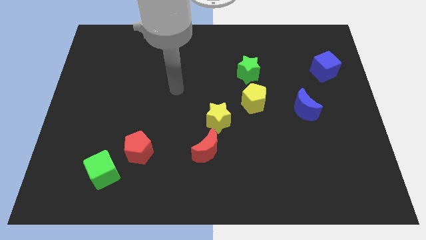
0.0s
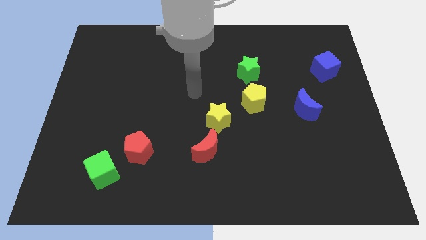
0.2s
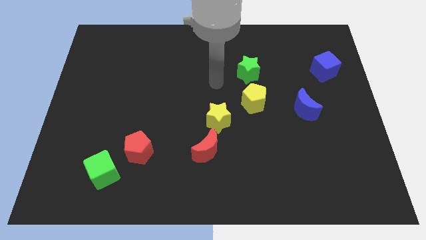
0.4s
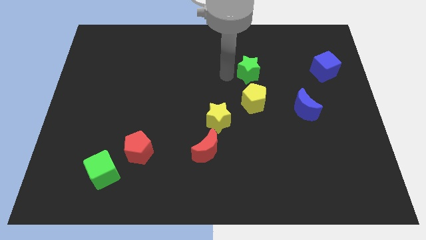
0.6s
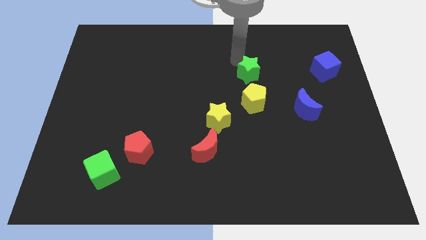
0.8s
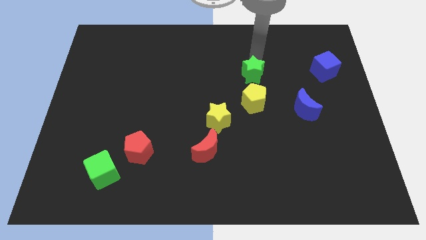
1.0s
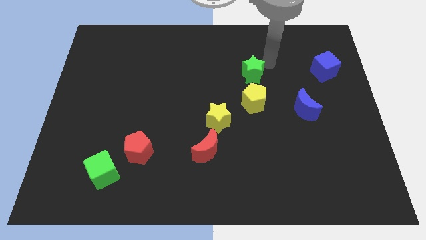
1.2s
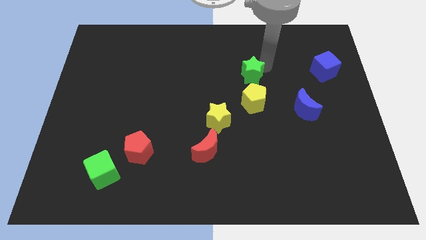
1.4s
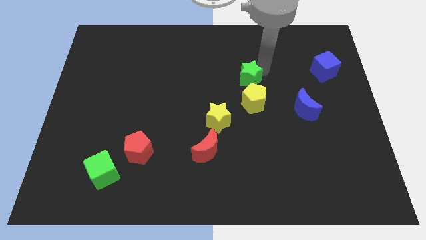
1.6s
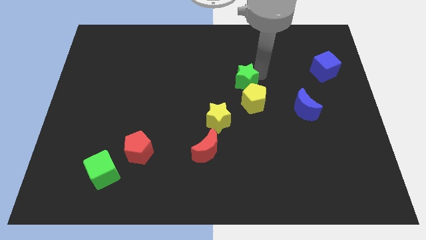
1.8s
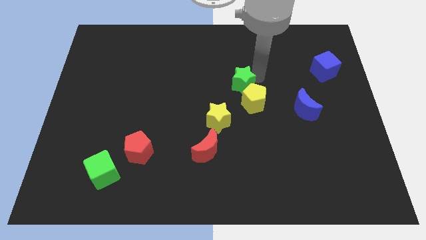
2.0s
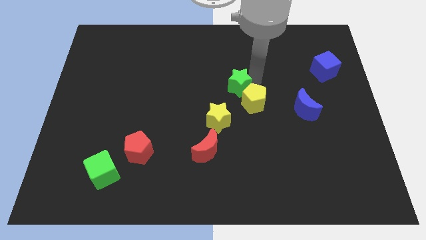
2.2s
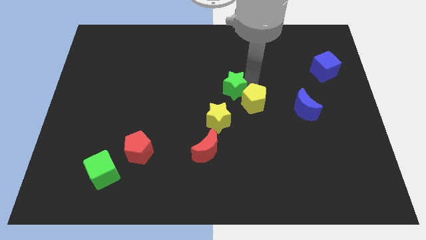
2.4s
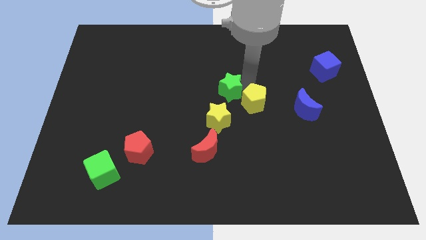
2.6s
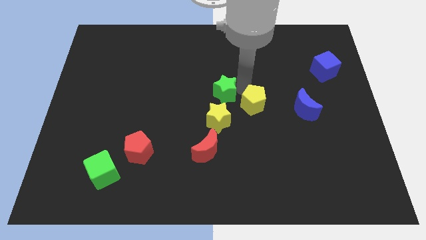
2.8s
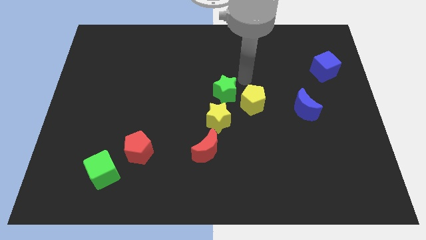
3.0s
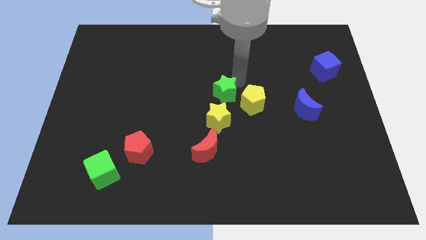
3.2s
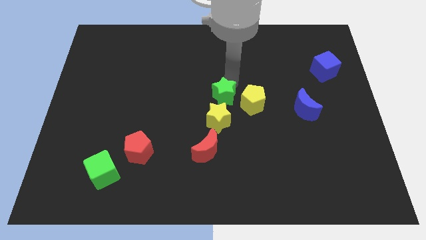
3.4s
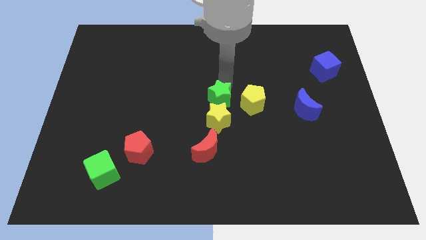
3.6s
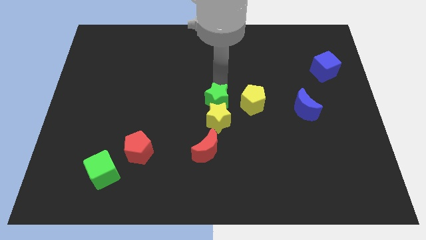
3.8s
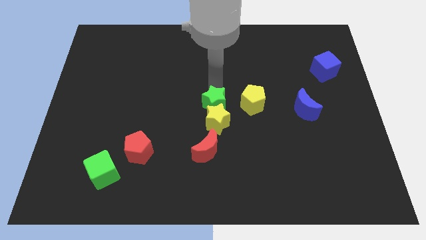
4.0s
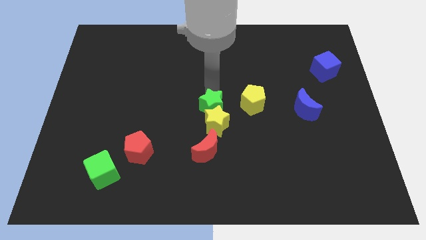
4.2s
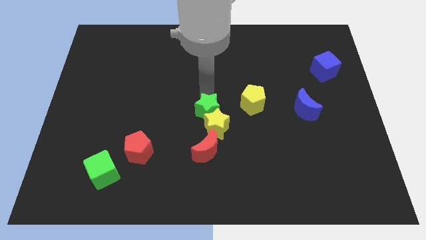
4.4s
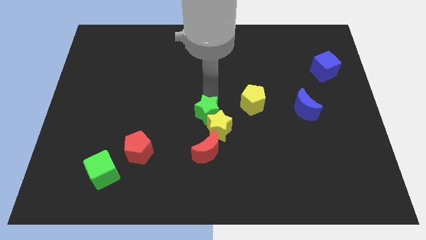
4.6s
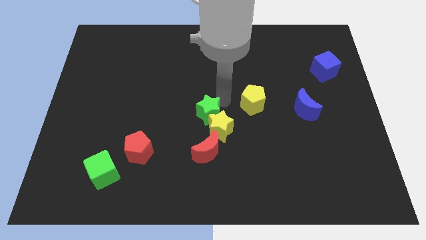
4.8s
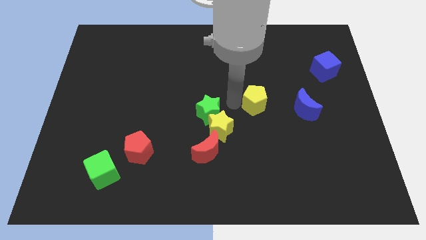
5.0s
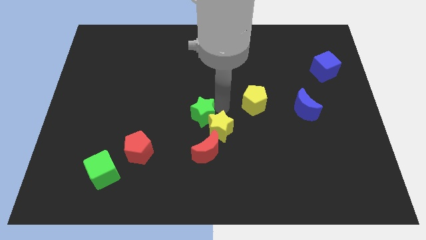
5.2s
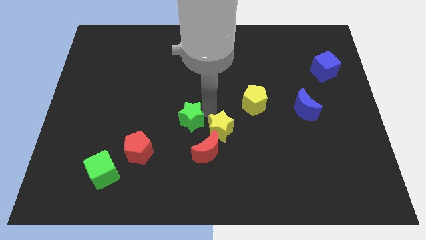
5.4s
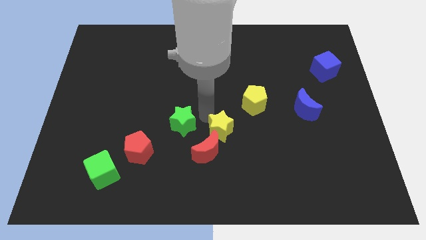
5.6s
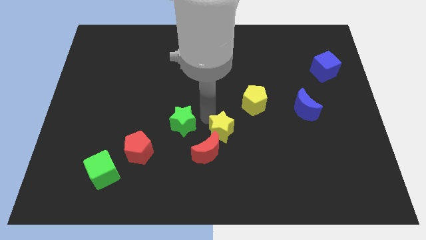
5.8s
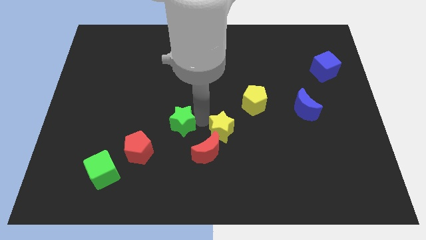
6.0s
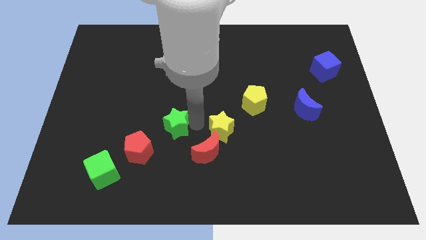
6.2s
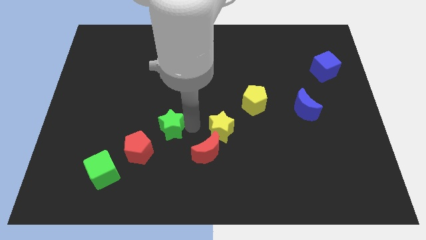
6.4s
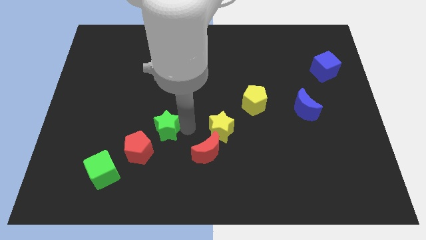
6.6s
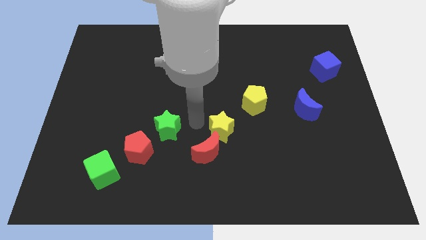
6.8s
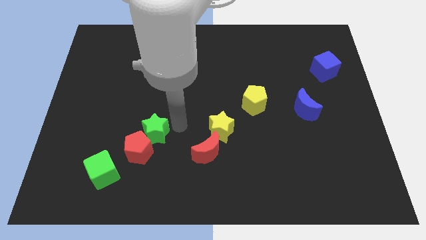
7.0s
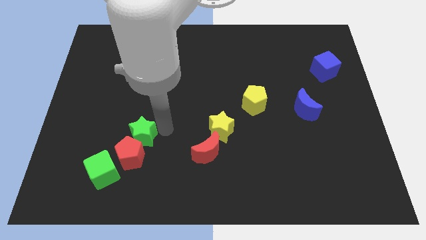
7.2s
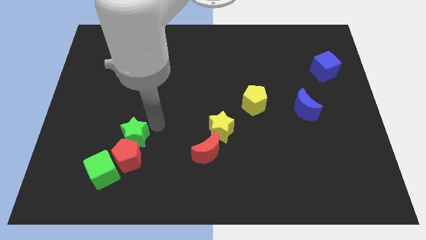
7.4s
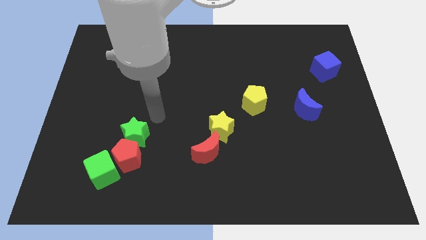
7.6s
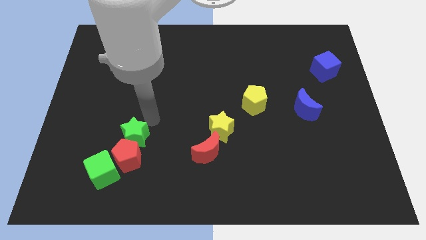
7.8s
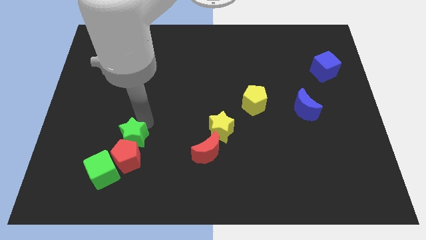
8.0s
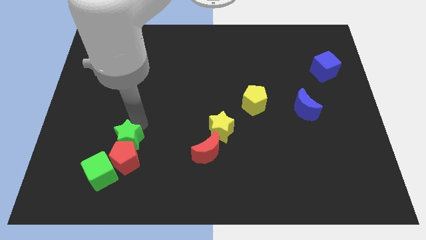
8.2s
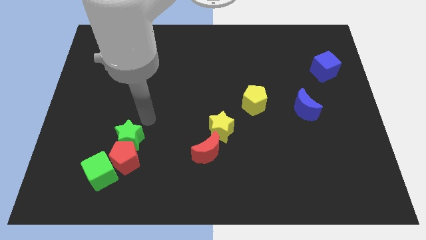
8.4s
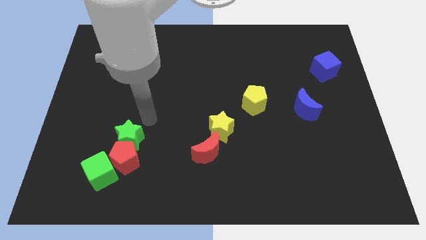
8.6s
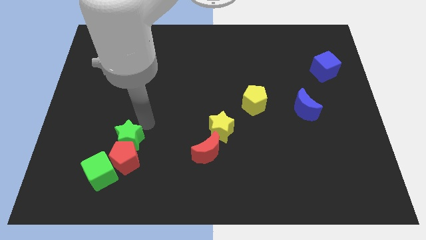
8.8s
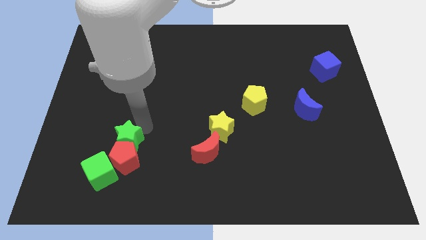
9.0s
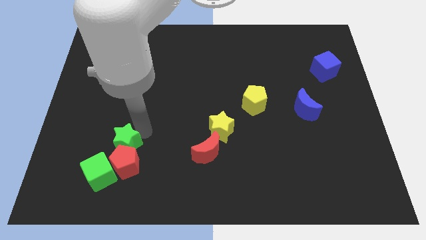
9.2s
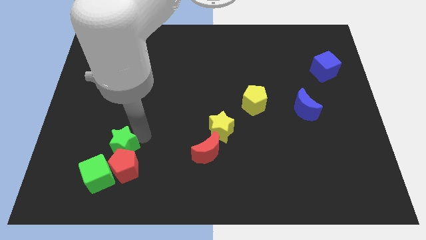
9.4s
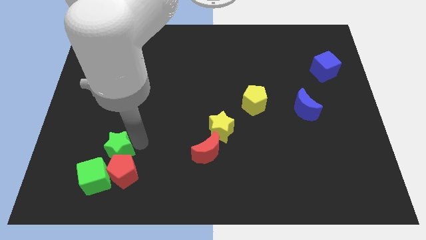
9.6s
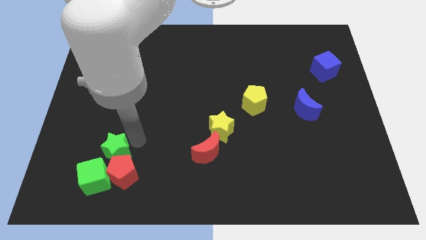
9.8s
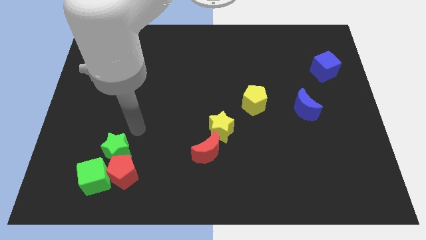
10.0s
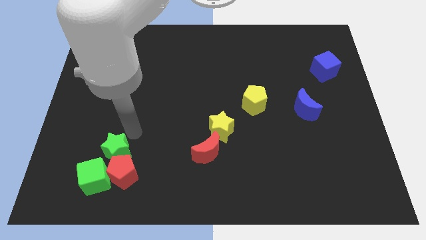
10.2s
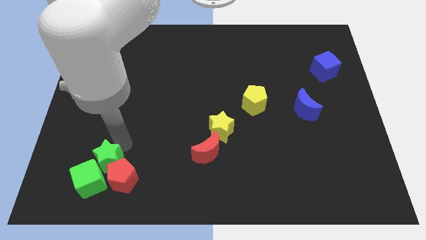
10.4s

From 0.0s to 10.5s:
slide the green star towards the green cube

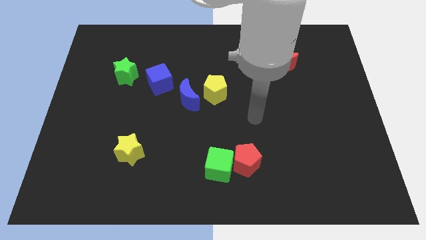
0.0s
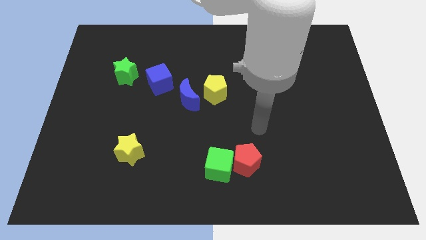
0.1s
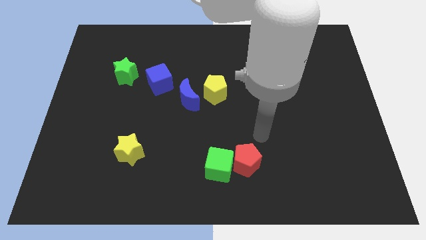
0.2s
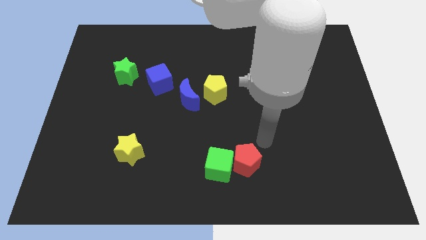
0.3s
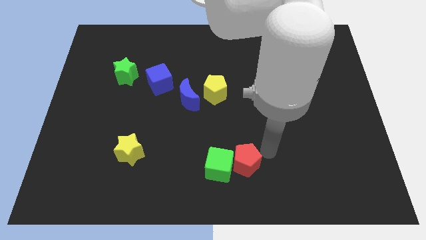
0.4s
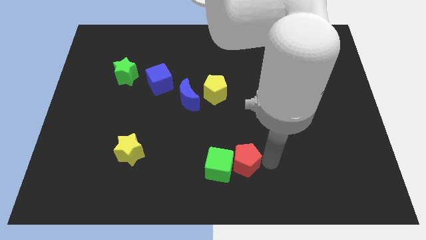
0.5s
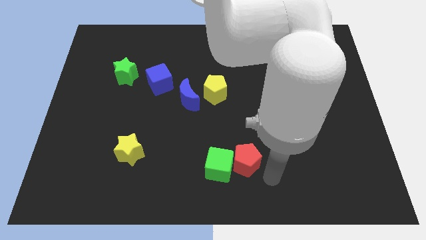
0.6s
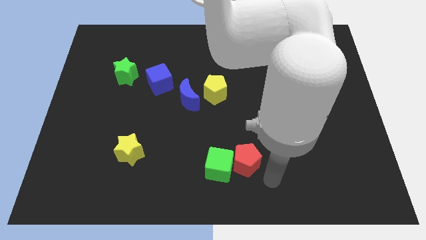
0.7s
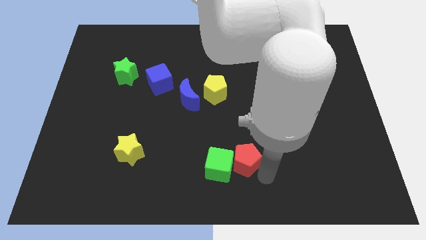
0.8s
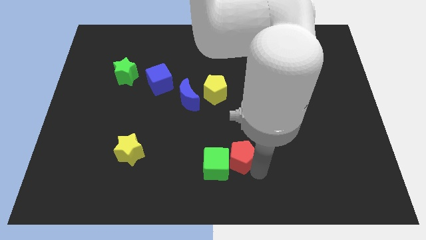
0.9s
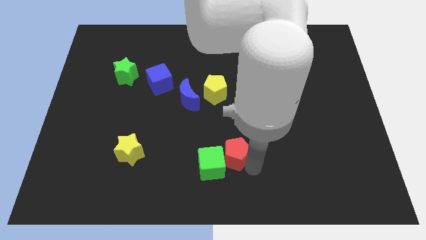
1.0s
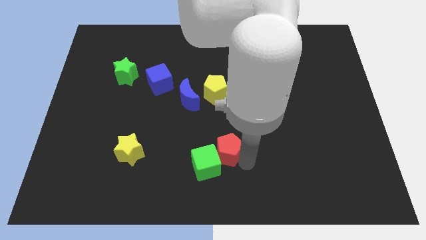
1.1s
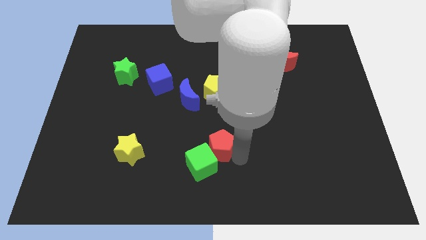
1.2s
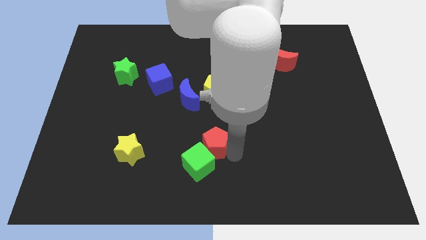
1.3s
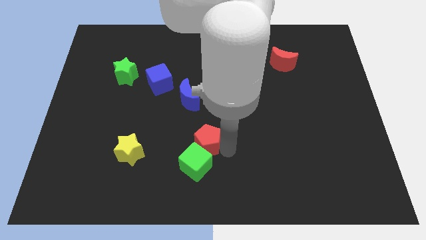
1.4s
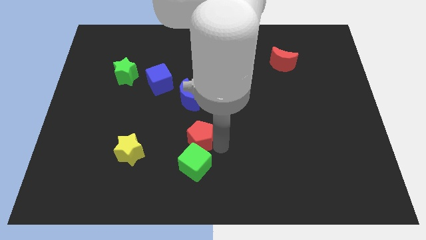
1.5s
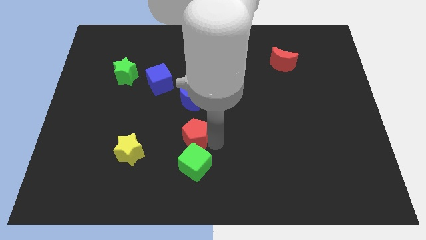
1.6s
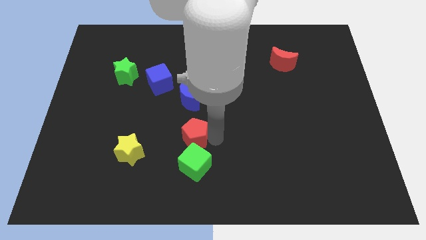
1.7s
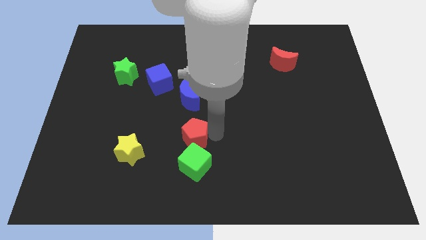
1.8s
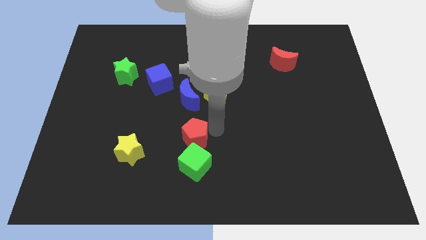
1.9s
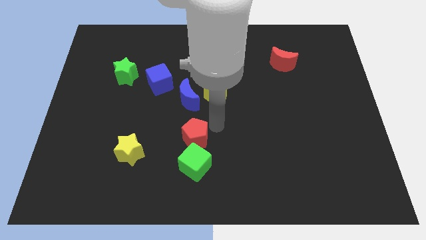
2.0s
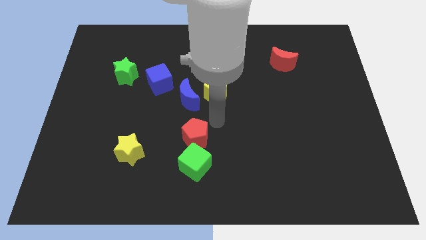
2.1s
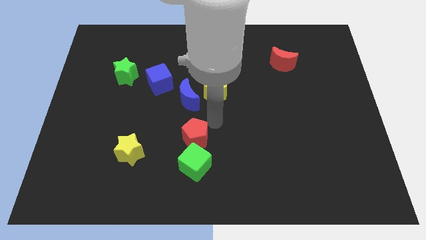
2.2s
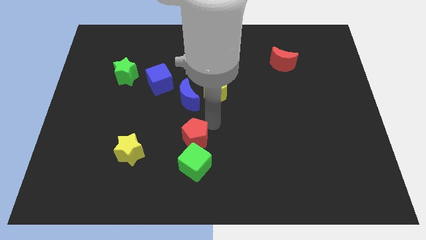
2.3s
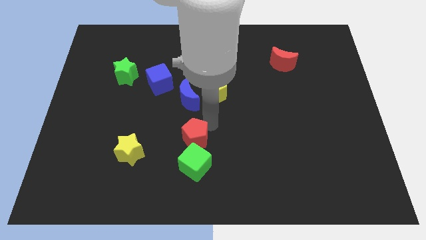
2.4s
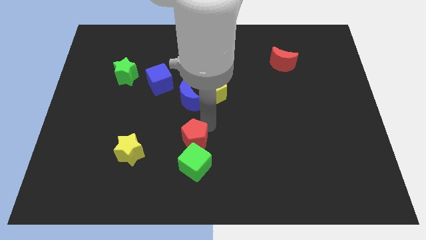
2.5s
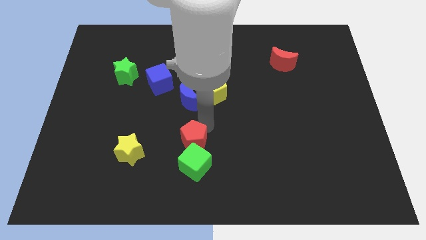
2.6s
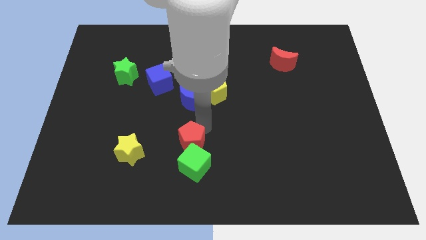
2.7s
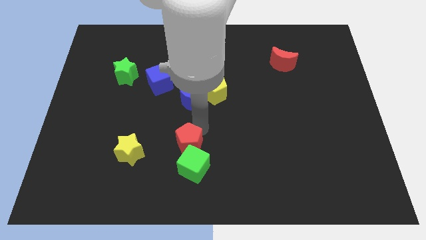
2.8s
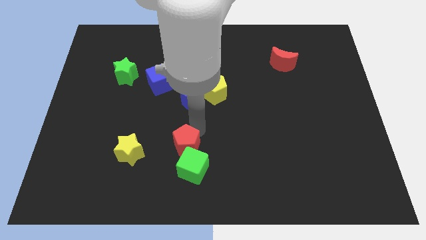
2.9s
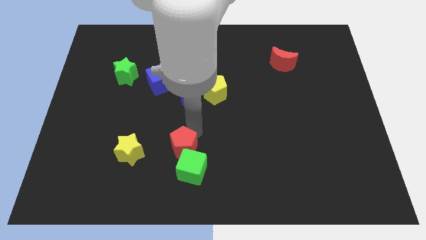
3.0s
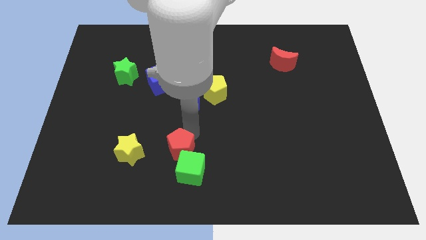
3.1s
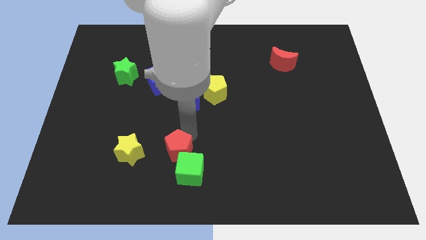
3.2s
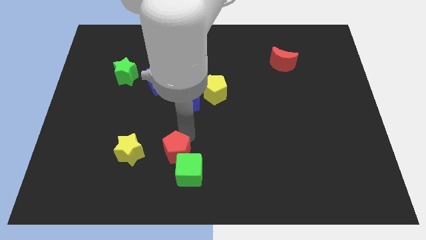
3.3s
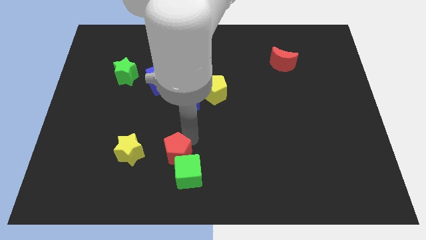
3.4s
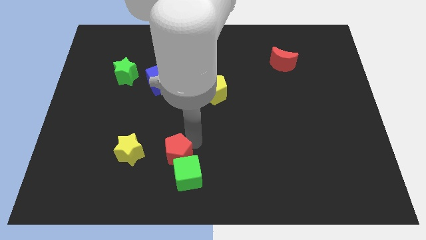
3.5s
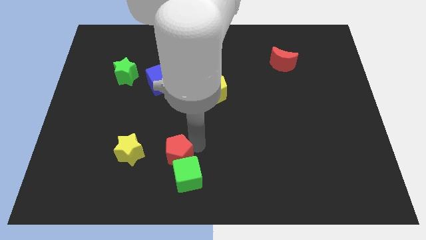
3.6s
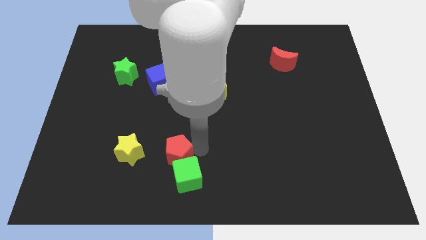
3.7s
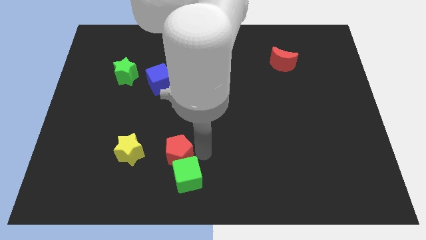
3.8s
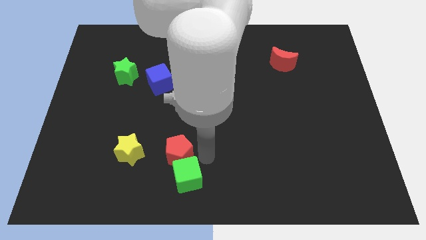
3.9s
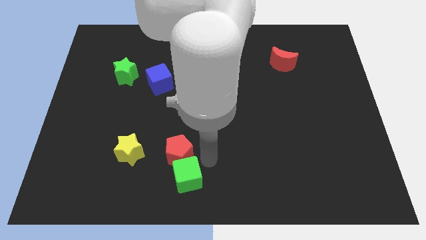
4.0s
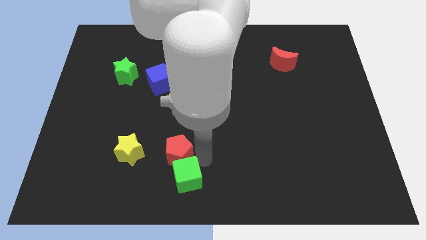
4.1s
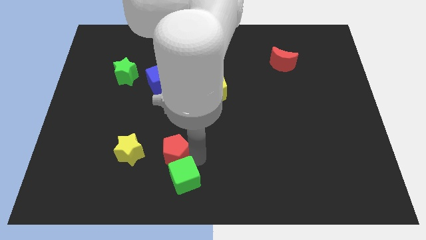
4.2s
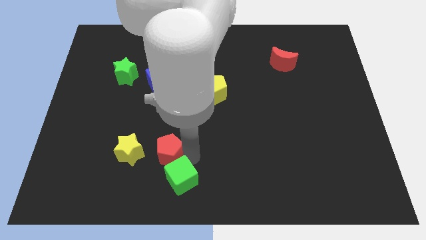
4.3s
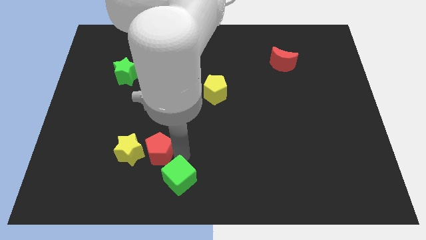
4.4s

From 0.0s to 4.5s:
put the red pentagon close to the yellow star
